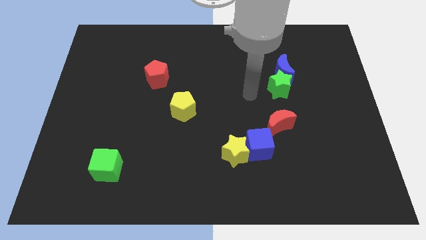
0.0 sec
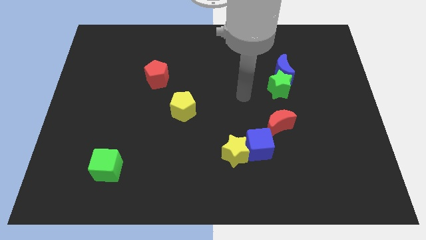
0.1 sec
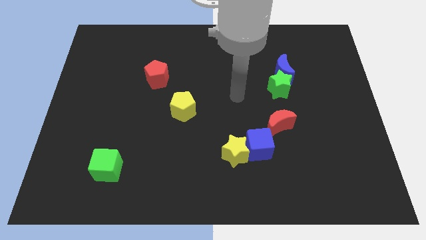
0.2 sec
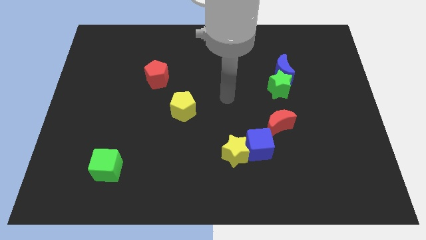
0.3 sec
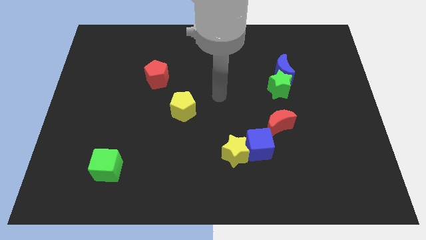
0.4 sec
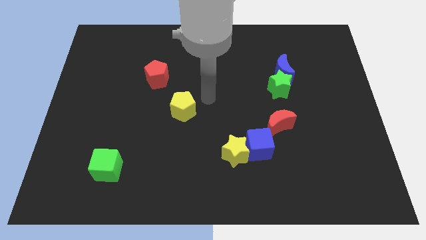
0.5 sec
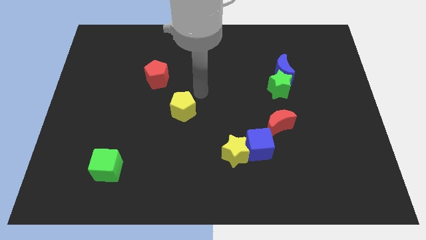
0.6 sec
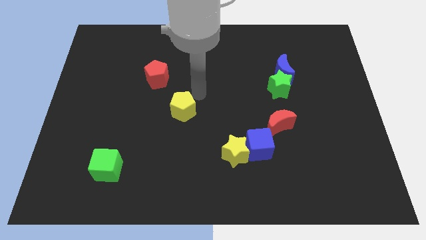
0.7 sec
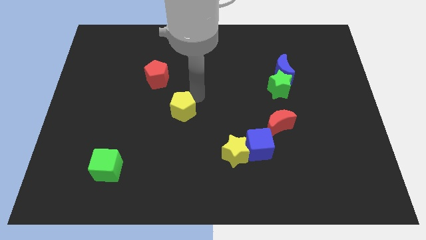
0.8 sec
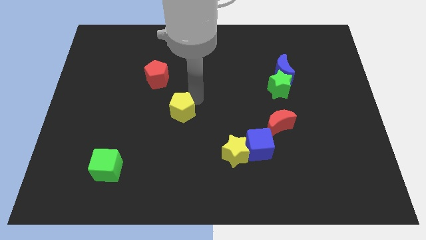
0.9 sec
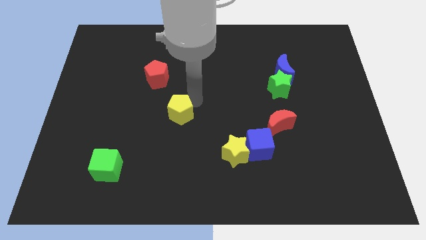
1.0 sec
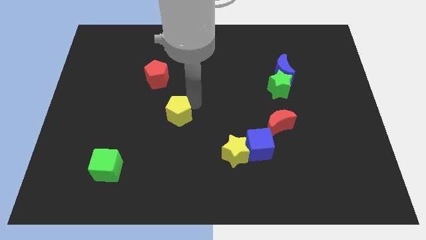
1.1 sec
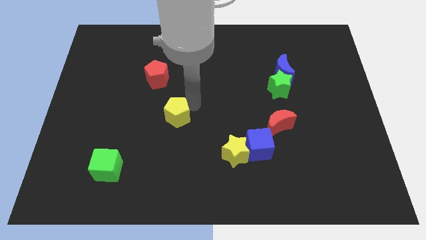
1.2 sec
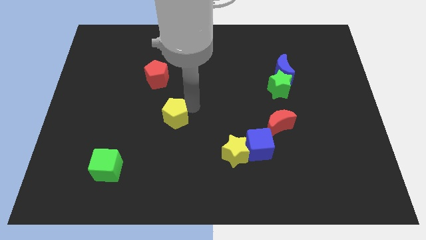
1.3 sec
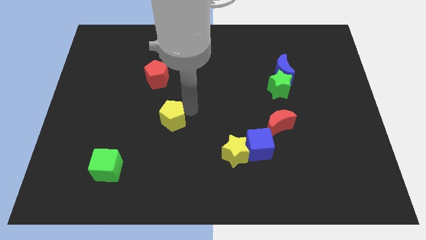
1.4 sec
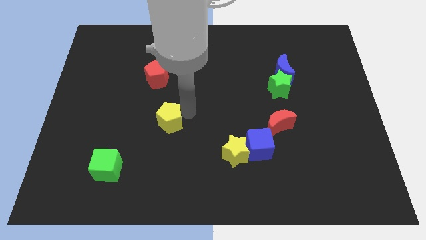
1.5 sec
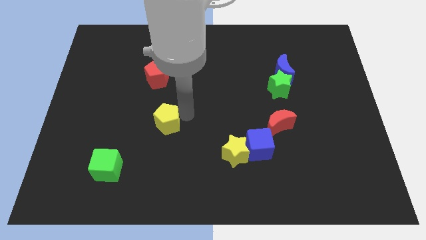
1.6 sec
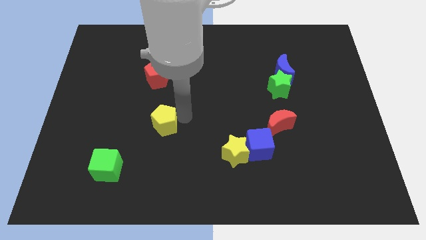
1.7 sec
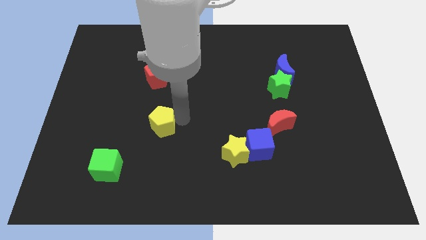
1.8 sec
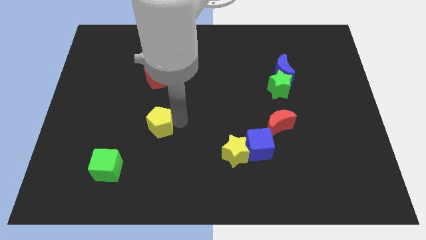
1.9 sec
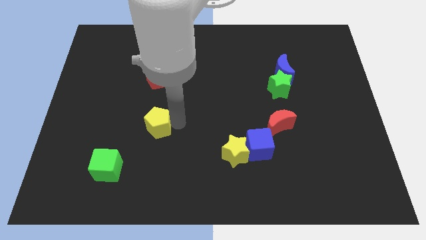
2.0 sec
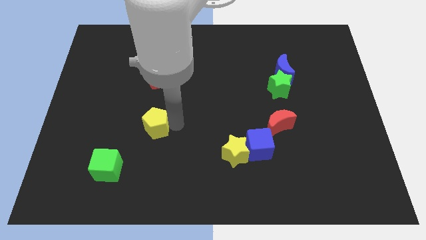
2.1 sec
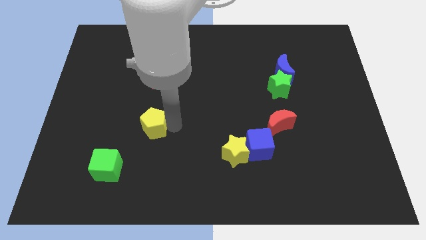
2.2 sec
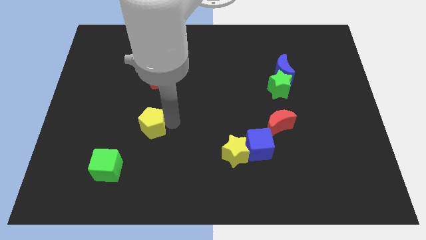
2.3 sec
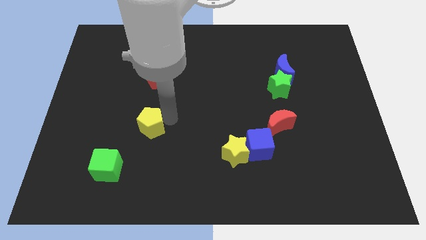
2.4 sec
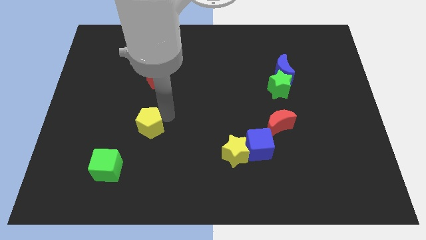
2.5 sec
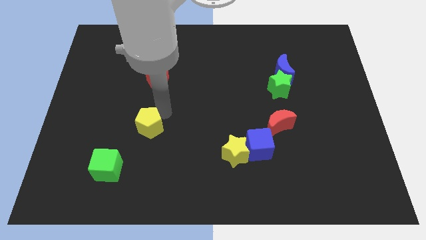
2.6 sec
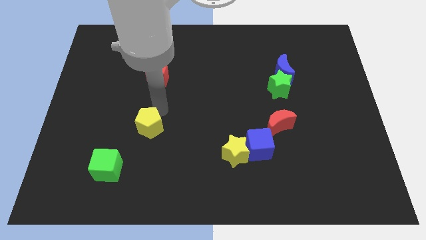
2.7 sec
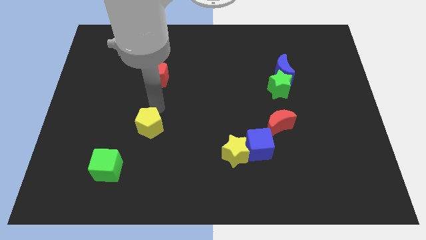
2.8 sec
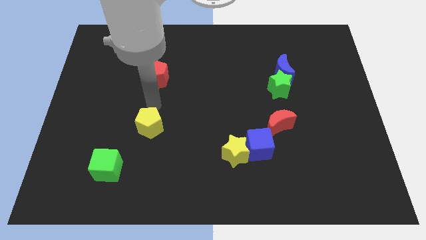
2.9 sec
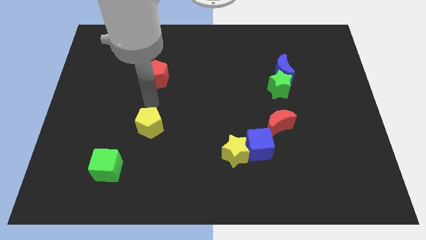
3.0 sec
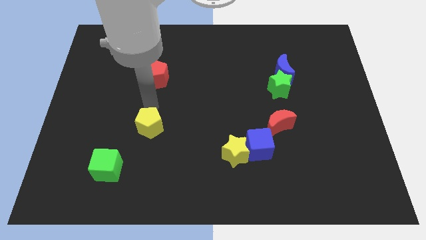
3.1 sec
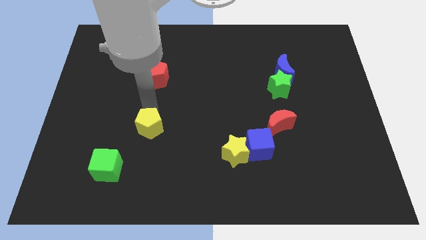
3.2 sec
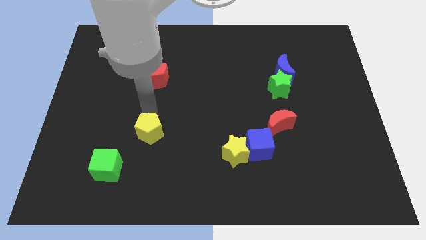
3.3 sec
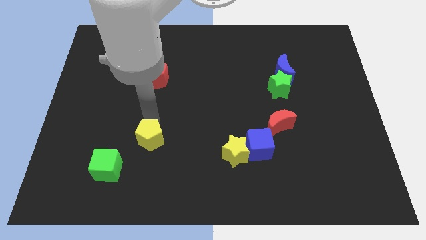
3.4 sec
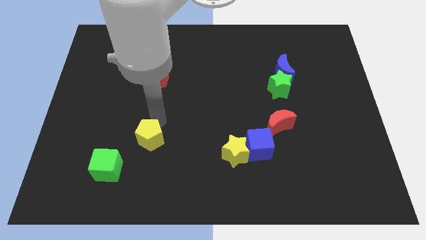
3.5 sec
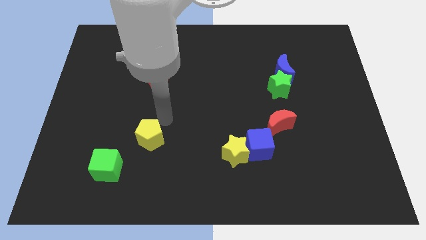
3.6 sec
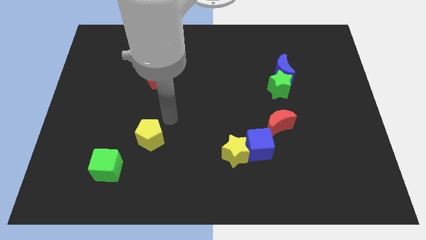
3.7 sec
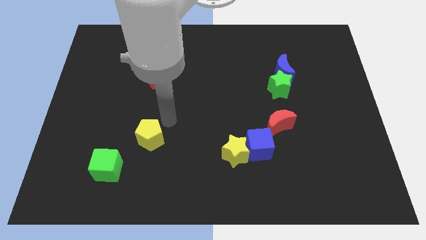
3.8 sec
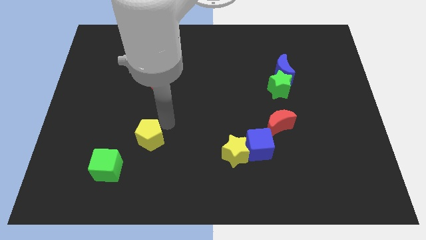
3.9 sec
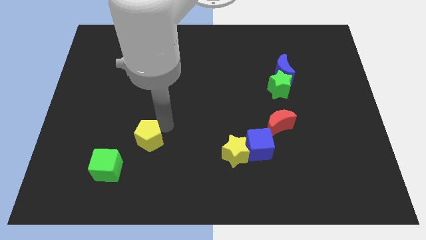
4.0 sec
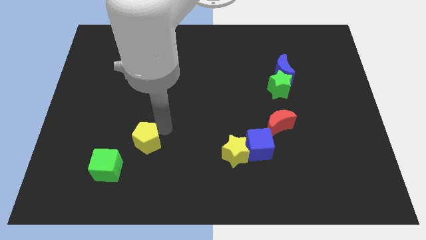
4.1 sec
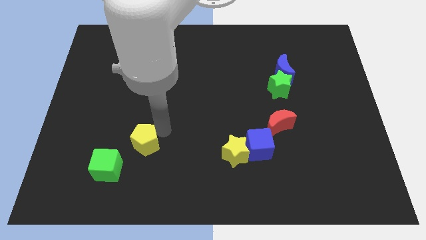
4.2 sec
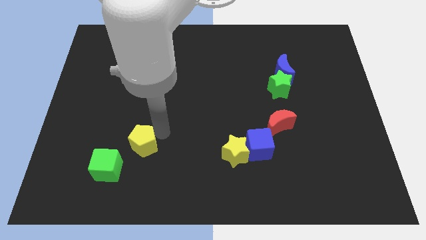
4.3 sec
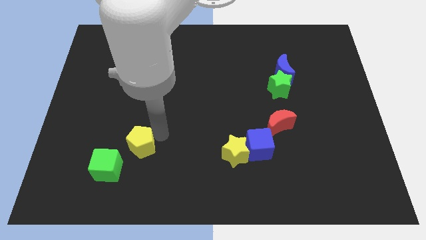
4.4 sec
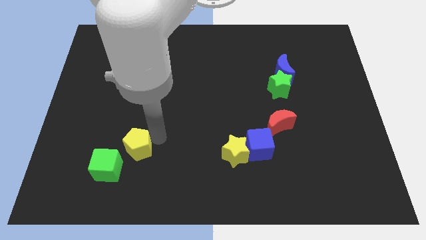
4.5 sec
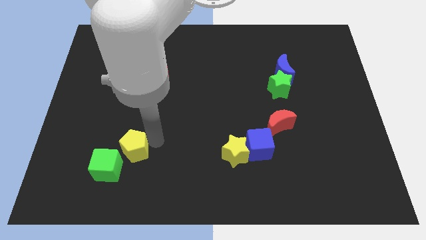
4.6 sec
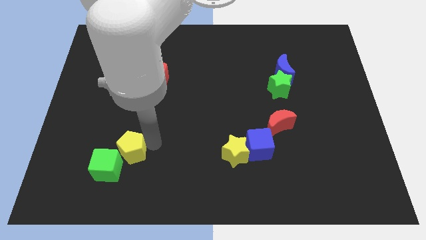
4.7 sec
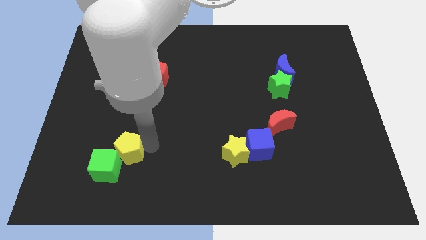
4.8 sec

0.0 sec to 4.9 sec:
move the yellow pentagon to the green cube

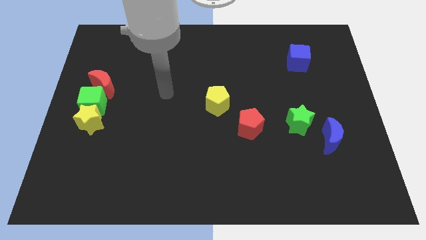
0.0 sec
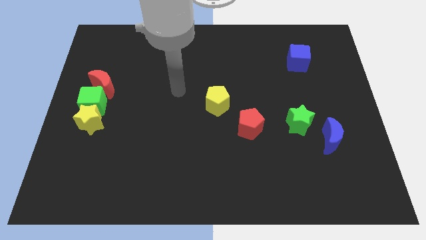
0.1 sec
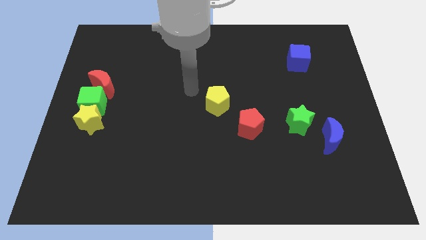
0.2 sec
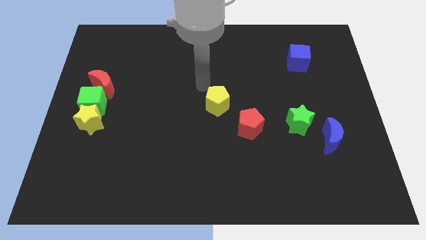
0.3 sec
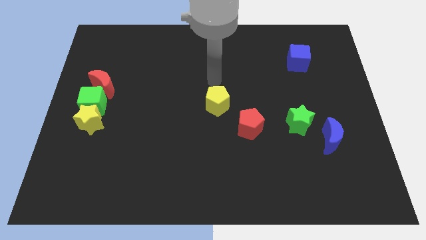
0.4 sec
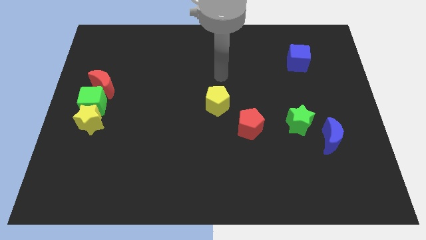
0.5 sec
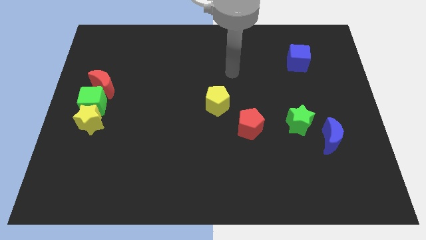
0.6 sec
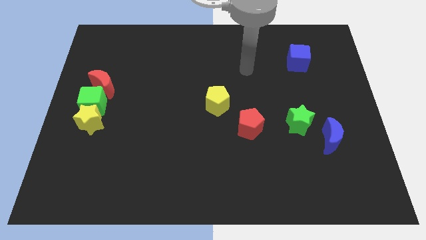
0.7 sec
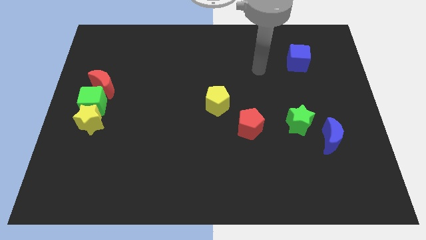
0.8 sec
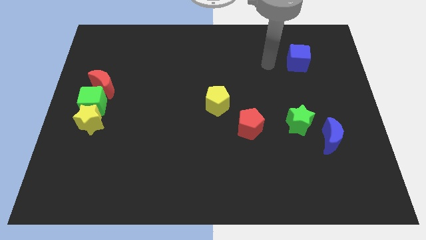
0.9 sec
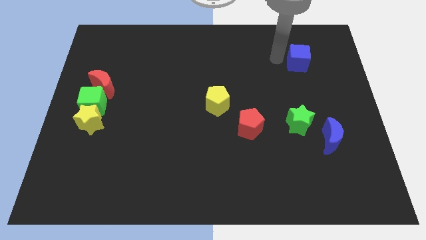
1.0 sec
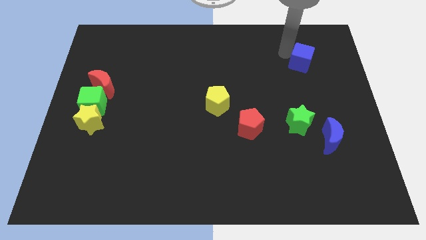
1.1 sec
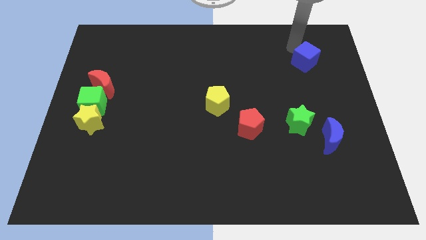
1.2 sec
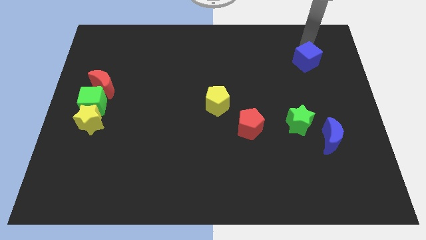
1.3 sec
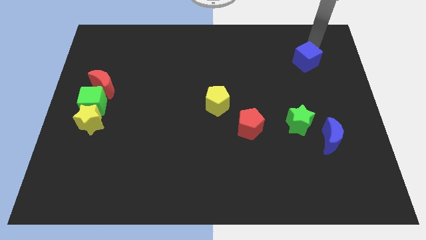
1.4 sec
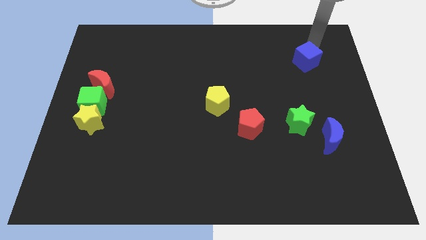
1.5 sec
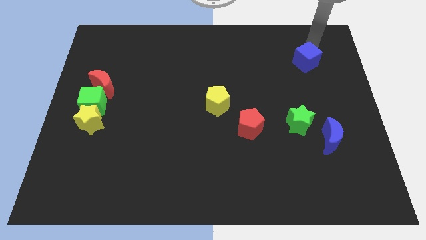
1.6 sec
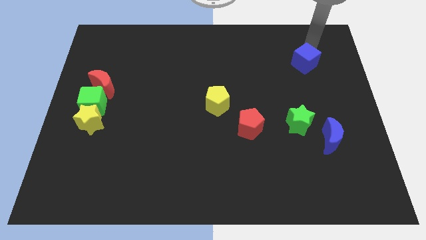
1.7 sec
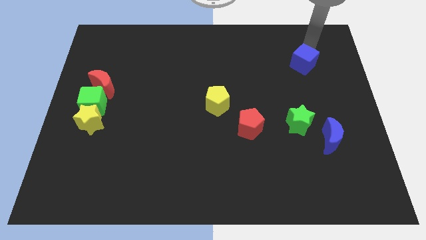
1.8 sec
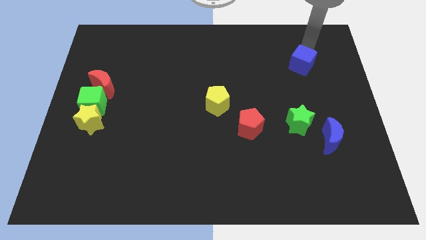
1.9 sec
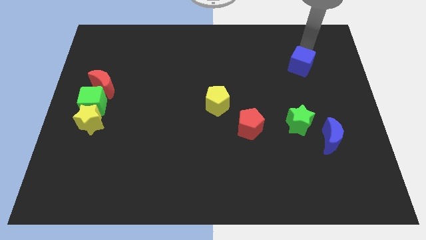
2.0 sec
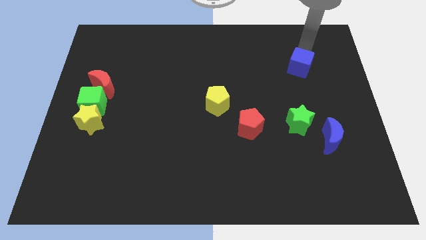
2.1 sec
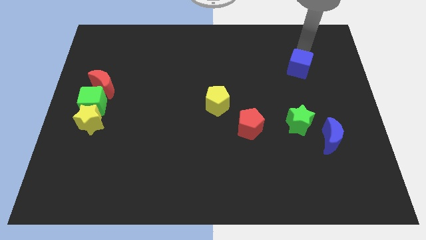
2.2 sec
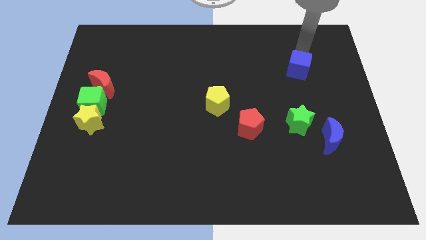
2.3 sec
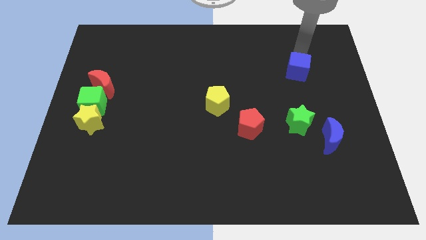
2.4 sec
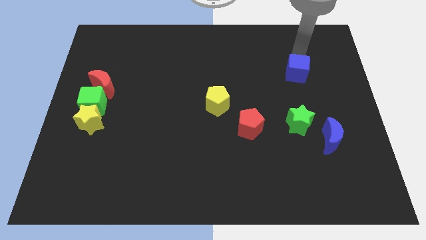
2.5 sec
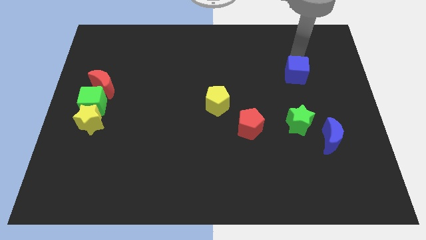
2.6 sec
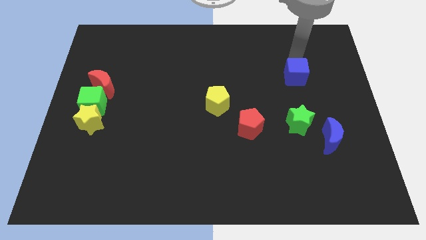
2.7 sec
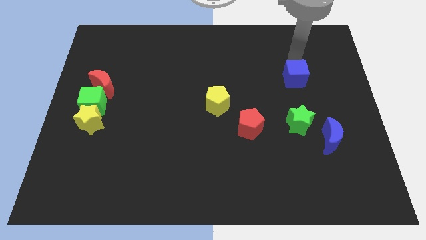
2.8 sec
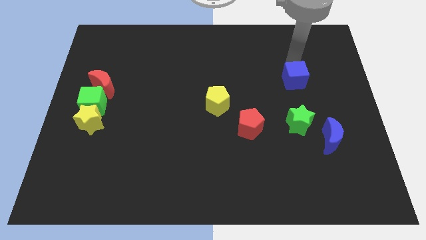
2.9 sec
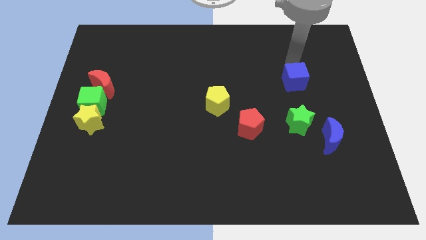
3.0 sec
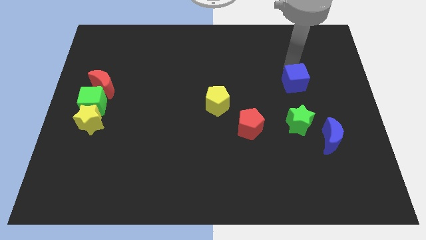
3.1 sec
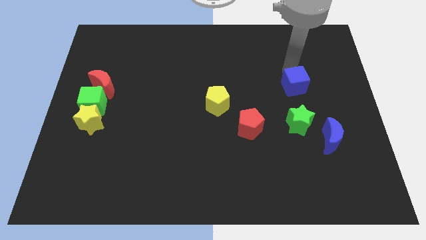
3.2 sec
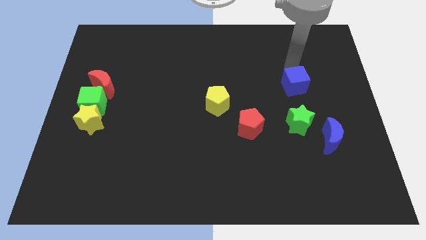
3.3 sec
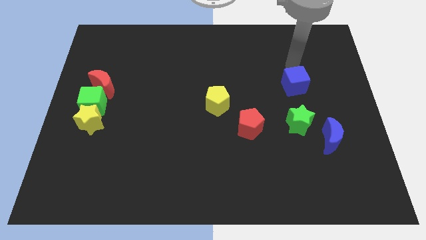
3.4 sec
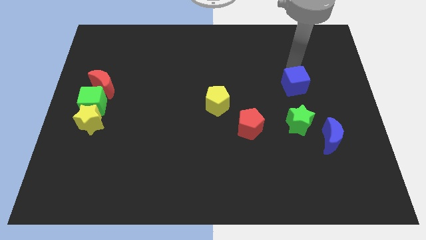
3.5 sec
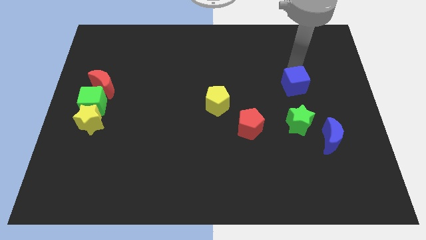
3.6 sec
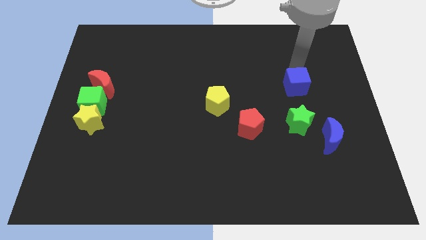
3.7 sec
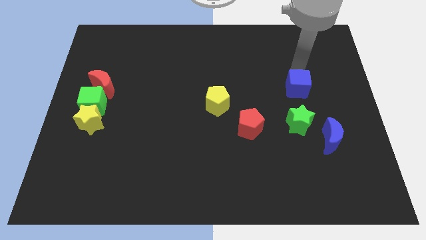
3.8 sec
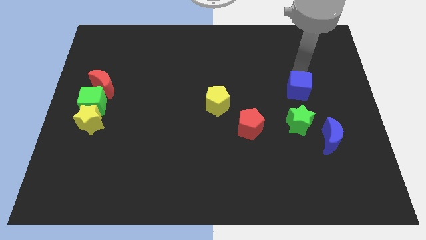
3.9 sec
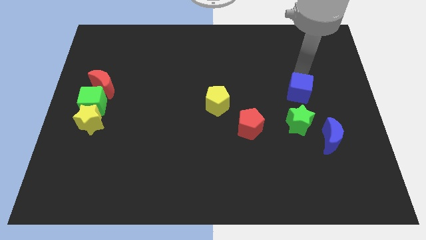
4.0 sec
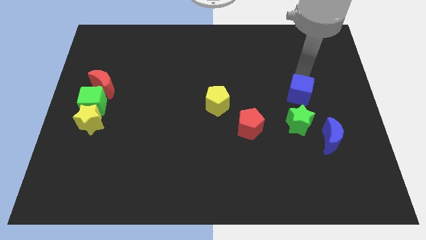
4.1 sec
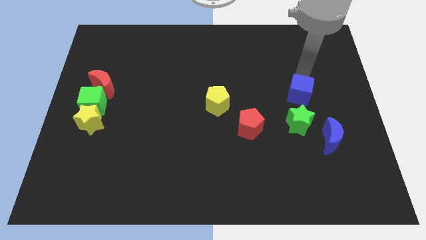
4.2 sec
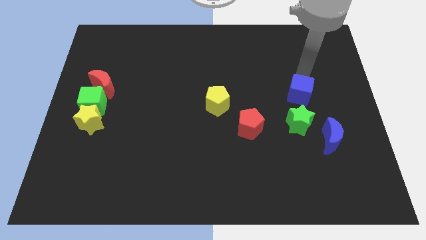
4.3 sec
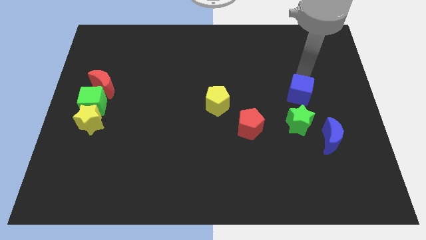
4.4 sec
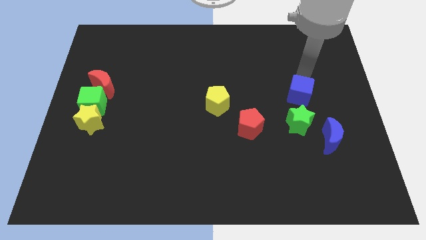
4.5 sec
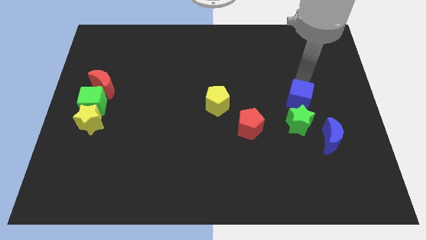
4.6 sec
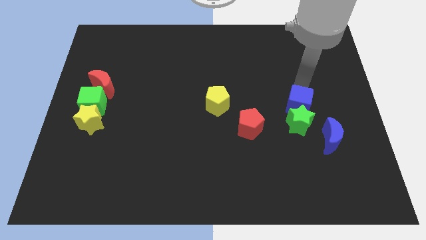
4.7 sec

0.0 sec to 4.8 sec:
slide the blue cube close to the green star
